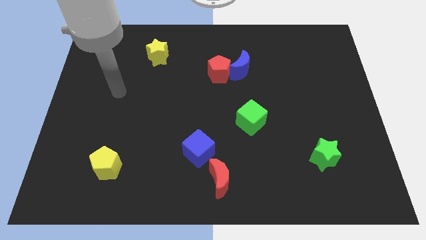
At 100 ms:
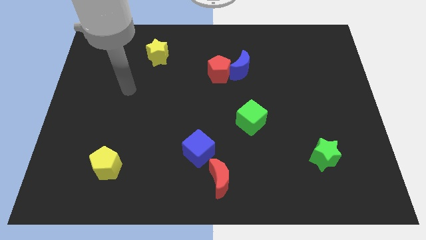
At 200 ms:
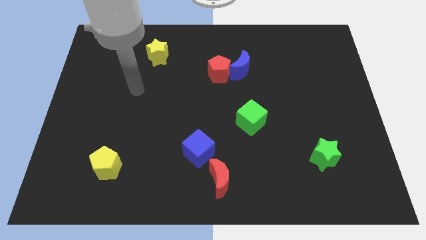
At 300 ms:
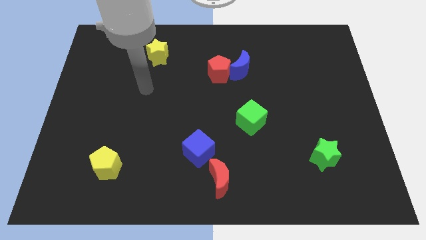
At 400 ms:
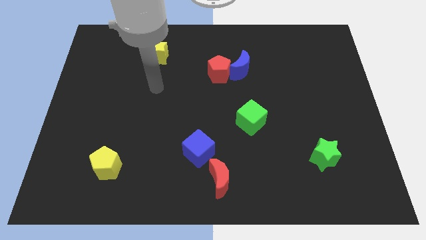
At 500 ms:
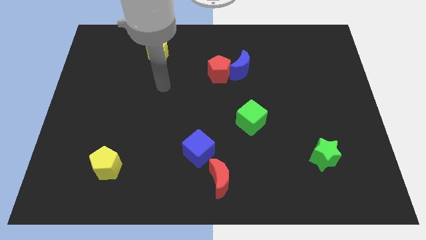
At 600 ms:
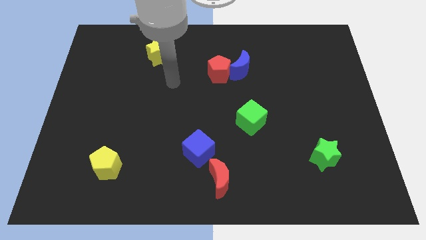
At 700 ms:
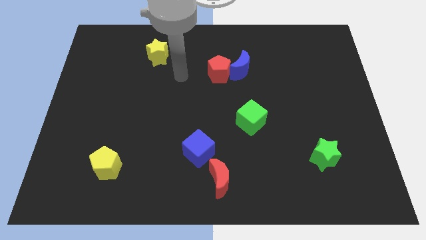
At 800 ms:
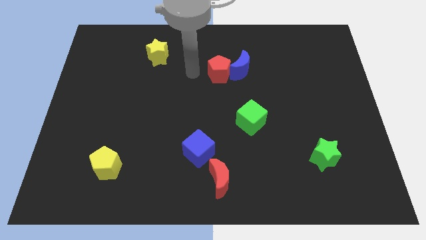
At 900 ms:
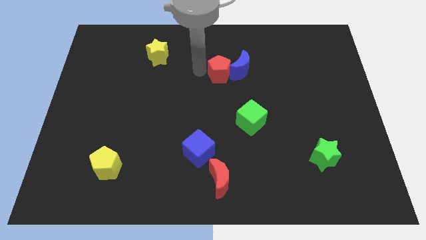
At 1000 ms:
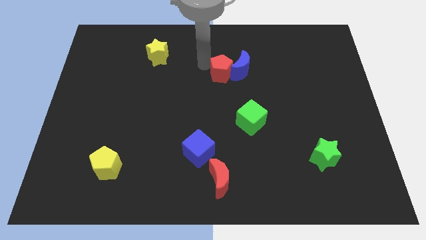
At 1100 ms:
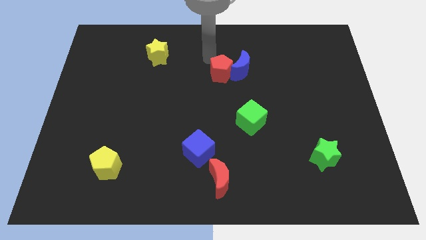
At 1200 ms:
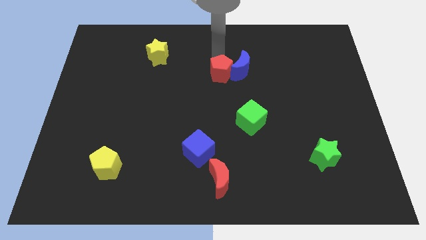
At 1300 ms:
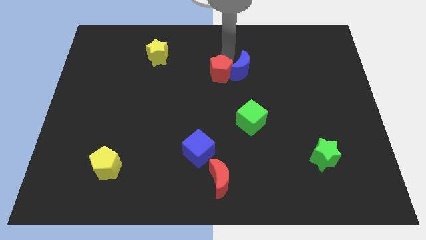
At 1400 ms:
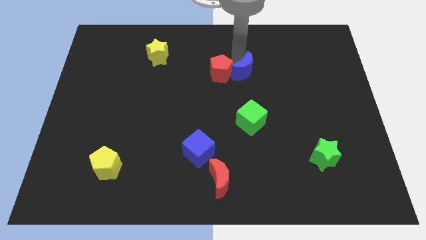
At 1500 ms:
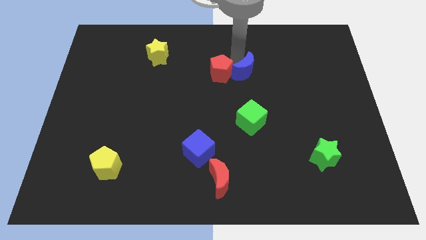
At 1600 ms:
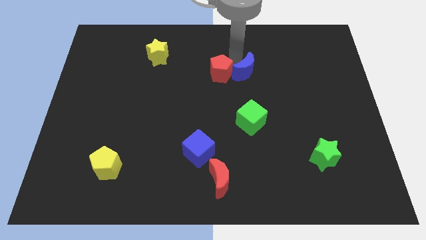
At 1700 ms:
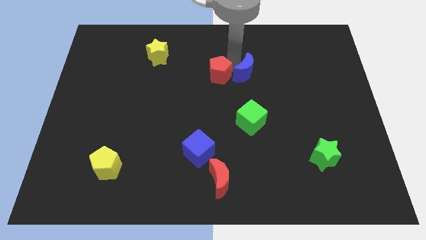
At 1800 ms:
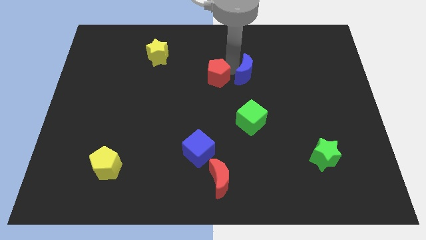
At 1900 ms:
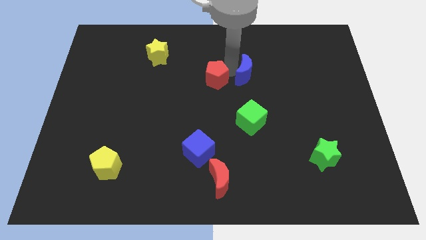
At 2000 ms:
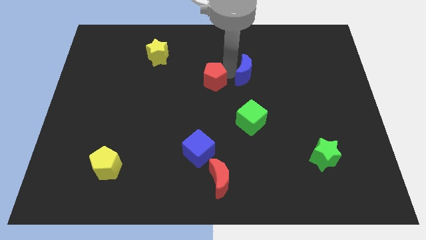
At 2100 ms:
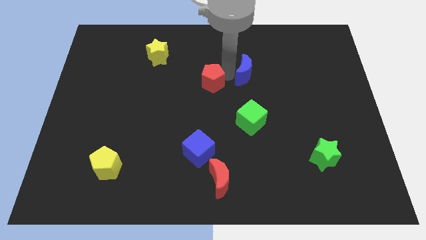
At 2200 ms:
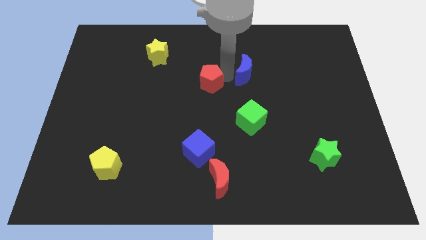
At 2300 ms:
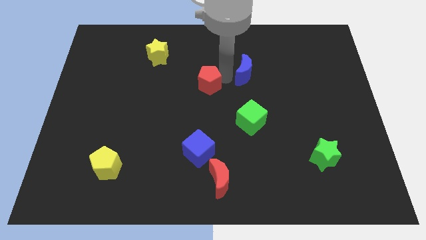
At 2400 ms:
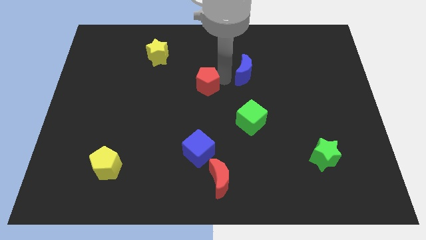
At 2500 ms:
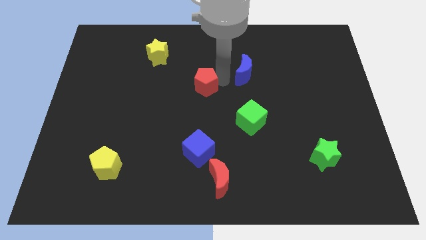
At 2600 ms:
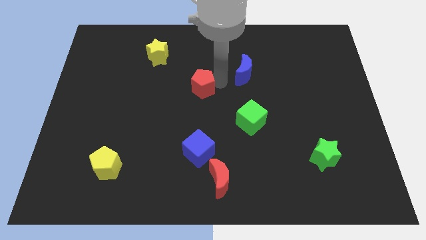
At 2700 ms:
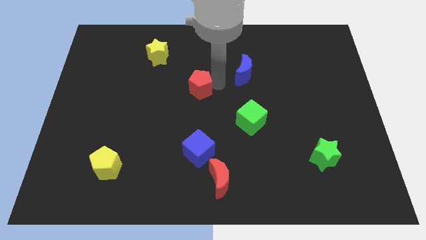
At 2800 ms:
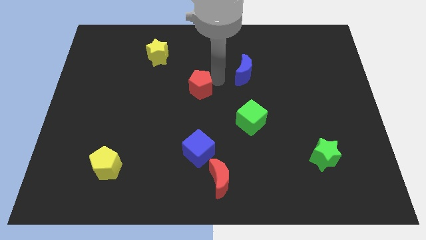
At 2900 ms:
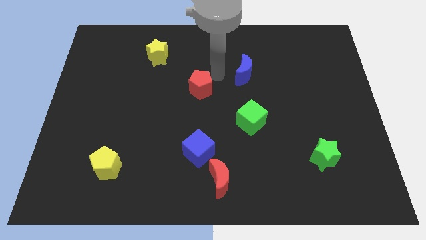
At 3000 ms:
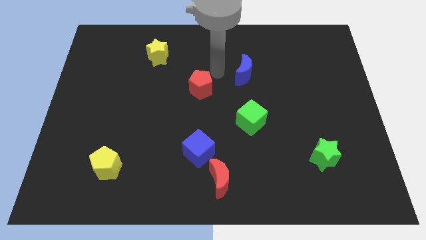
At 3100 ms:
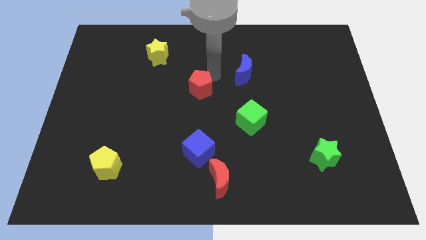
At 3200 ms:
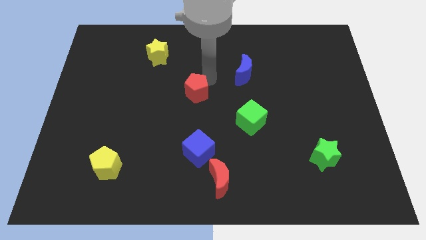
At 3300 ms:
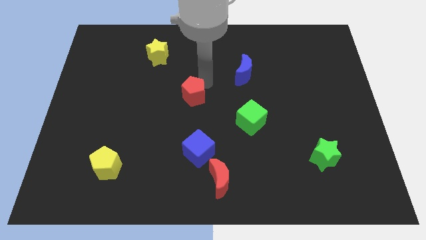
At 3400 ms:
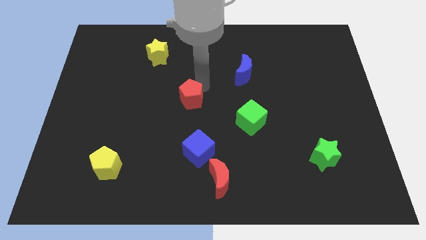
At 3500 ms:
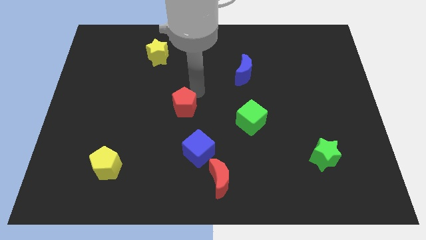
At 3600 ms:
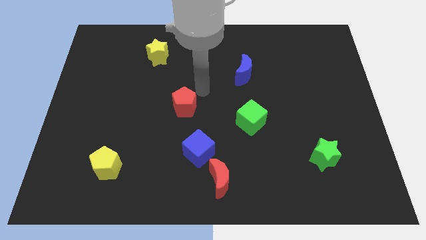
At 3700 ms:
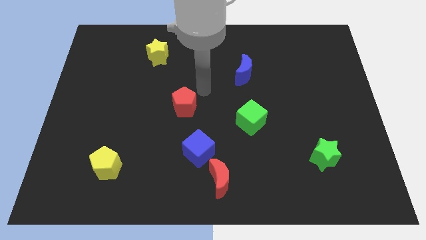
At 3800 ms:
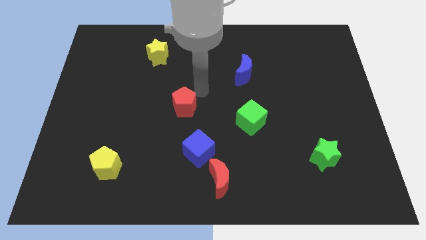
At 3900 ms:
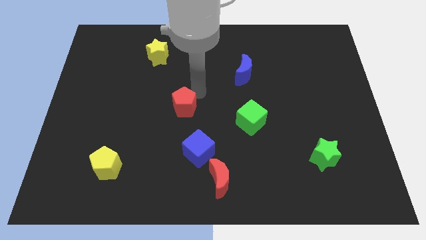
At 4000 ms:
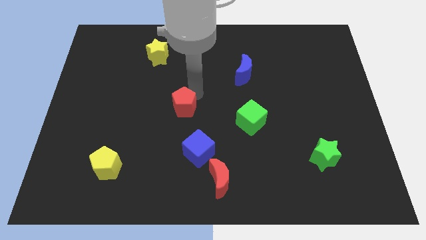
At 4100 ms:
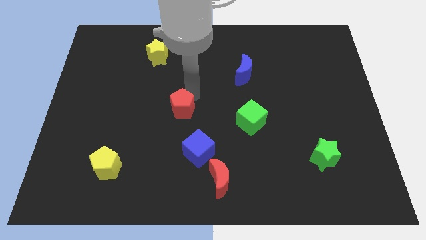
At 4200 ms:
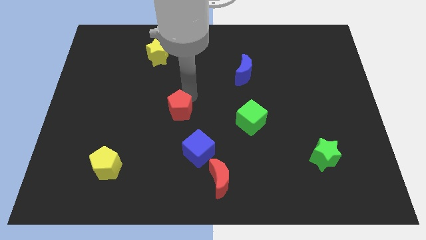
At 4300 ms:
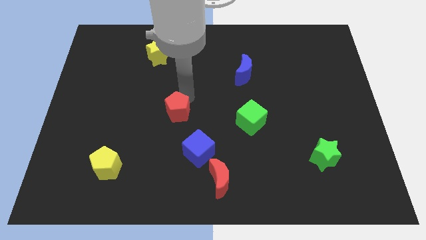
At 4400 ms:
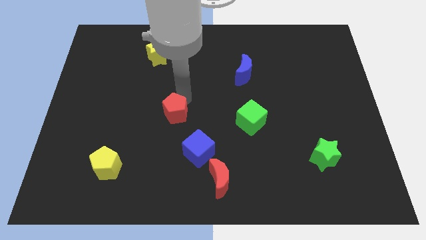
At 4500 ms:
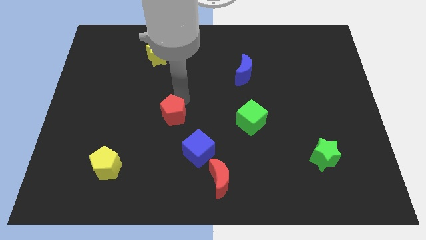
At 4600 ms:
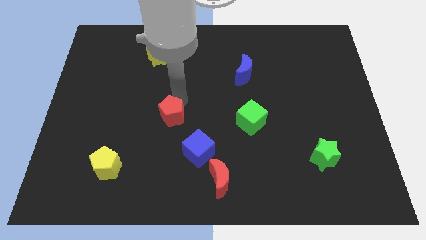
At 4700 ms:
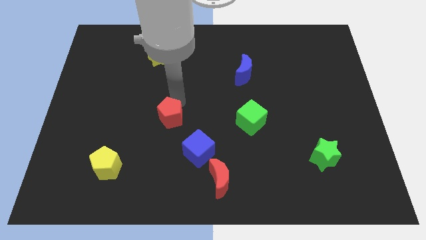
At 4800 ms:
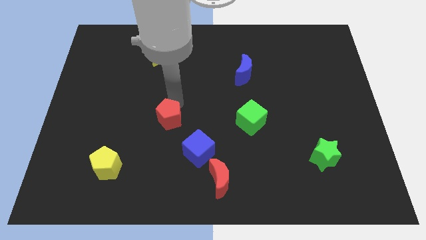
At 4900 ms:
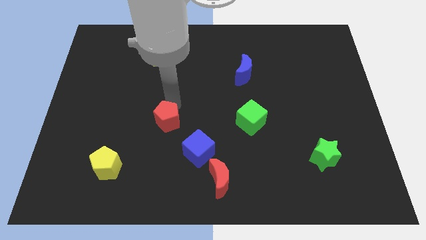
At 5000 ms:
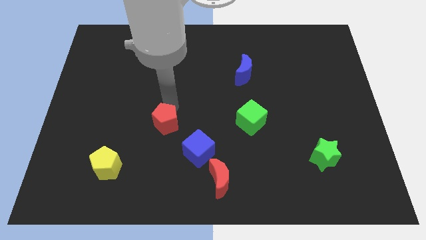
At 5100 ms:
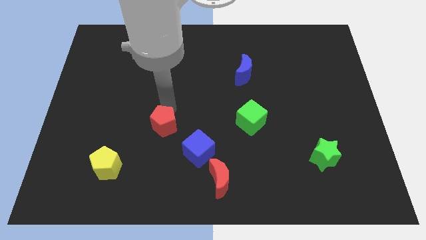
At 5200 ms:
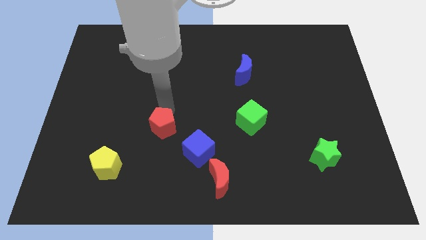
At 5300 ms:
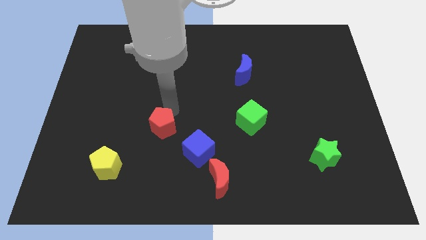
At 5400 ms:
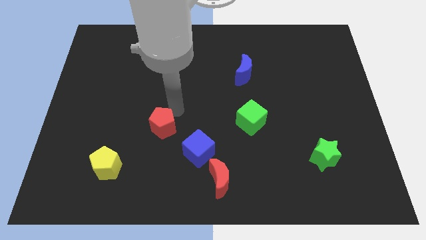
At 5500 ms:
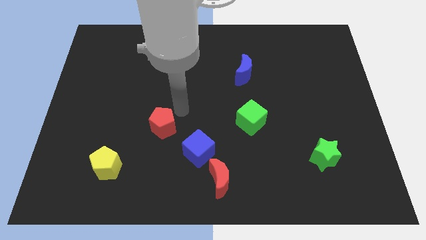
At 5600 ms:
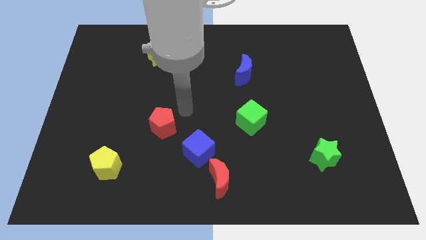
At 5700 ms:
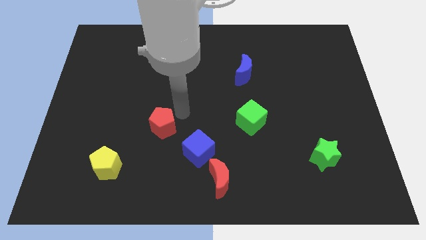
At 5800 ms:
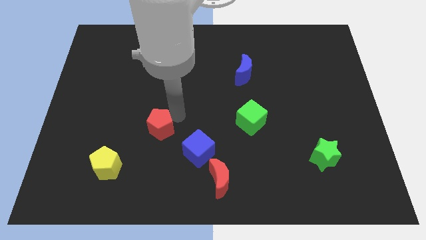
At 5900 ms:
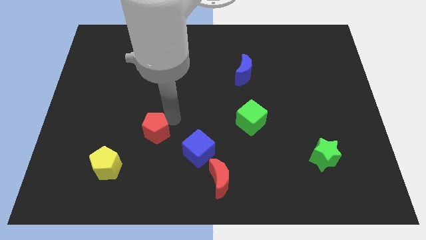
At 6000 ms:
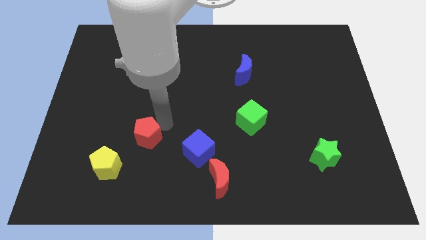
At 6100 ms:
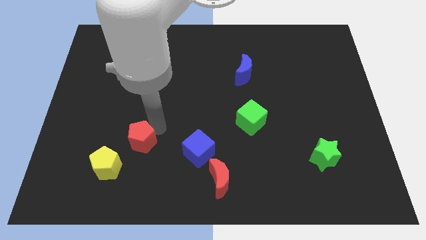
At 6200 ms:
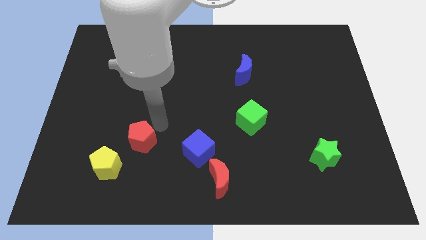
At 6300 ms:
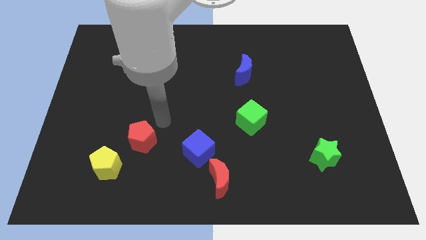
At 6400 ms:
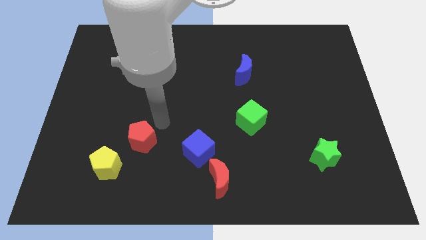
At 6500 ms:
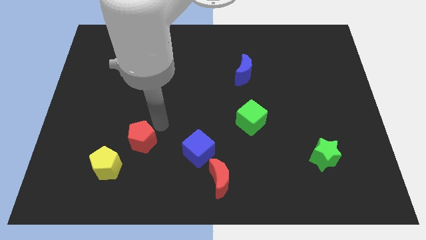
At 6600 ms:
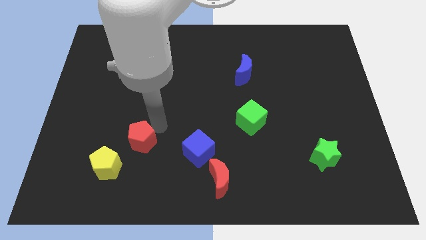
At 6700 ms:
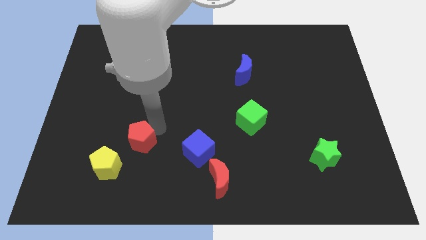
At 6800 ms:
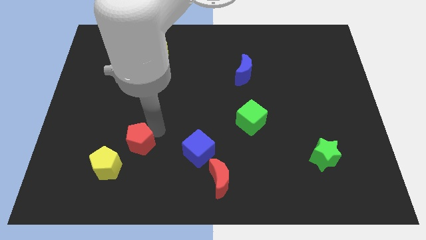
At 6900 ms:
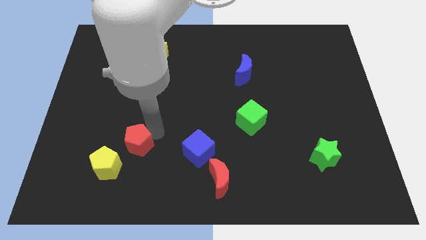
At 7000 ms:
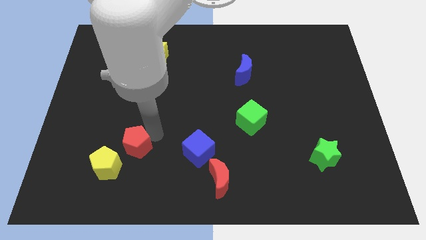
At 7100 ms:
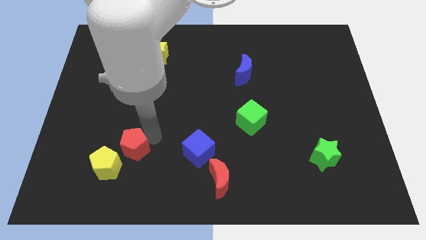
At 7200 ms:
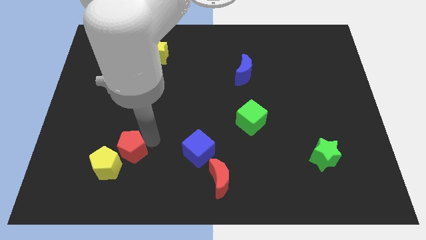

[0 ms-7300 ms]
push the red pentagon to the yellow pentagon

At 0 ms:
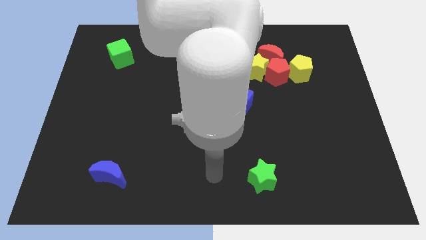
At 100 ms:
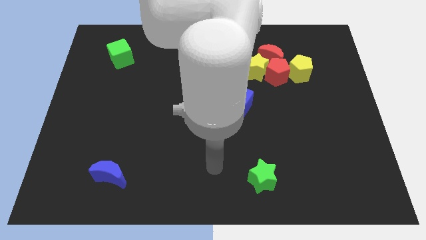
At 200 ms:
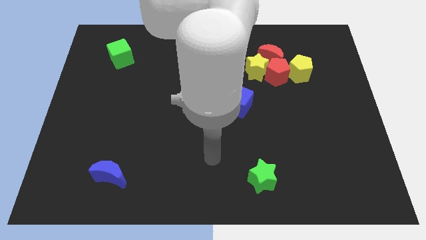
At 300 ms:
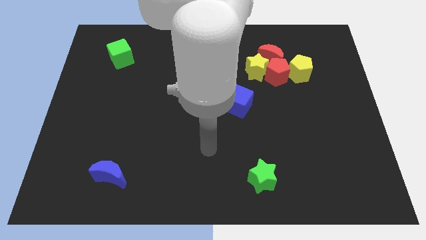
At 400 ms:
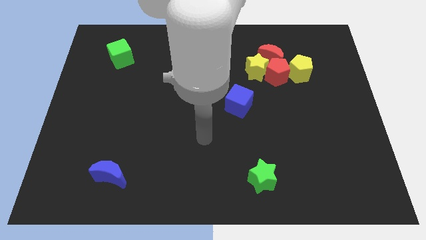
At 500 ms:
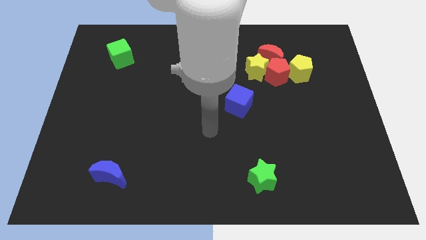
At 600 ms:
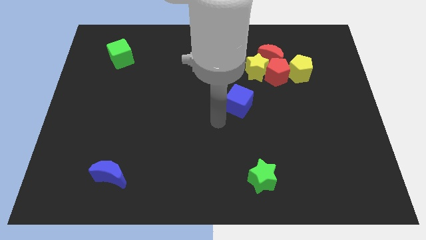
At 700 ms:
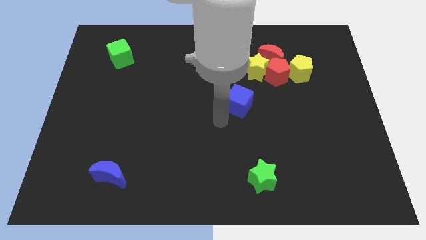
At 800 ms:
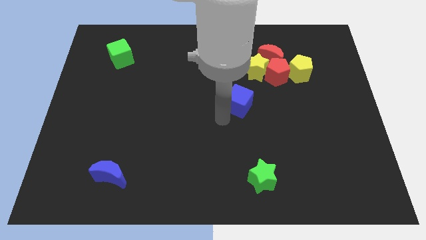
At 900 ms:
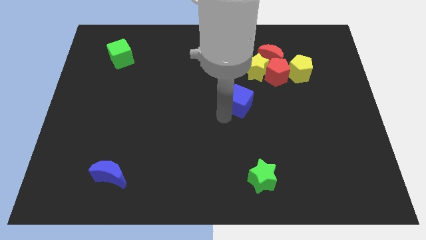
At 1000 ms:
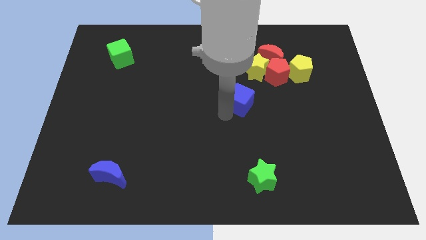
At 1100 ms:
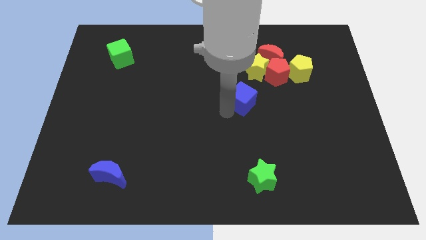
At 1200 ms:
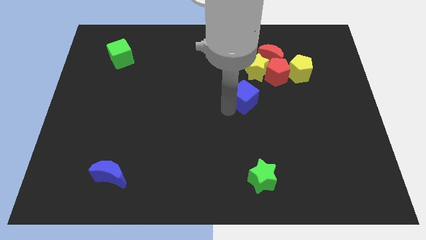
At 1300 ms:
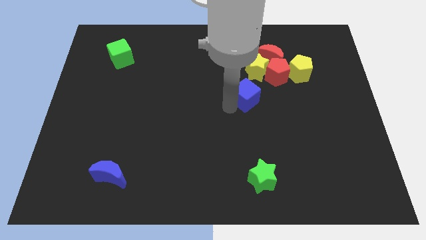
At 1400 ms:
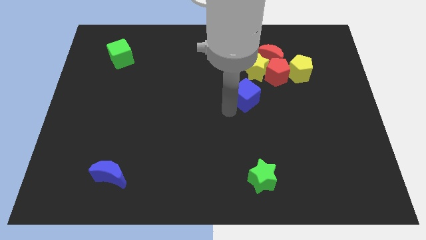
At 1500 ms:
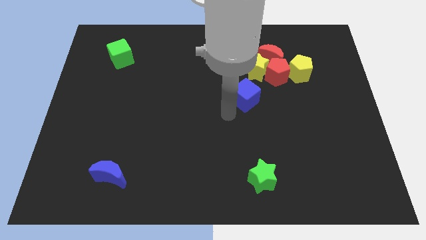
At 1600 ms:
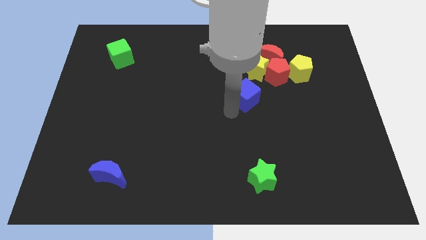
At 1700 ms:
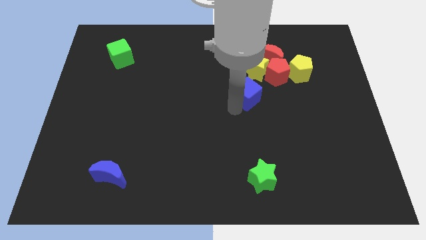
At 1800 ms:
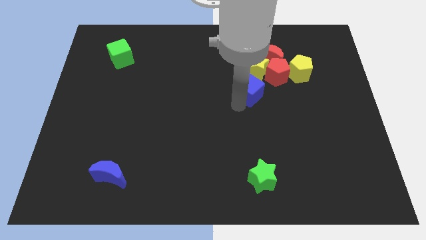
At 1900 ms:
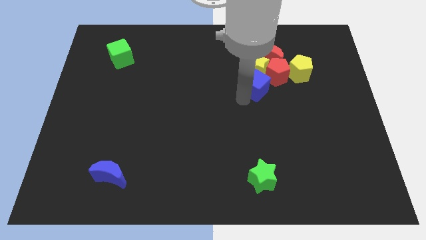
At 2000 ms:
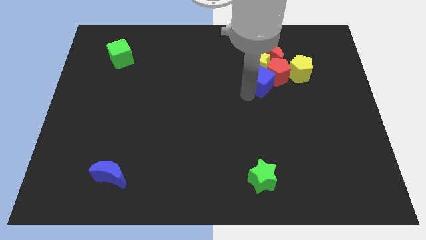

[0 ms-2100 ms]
push the blue cube towards the red pentagon
